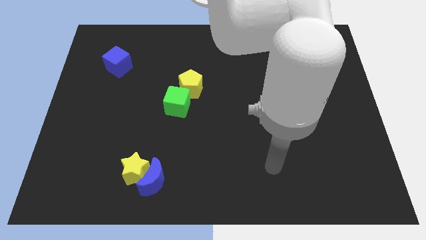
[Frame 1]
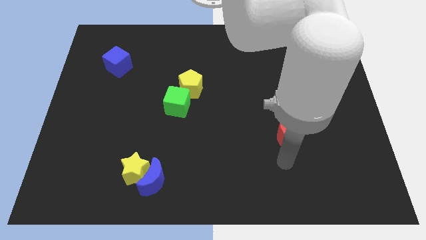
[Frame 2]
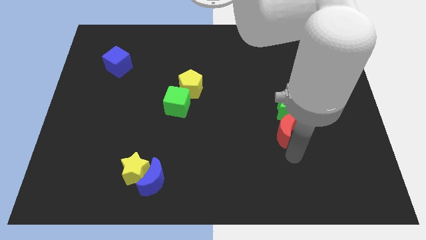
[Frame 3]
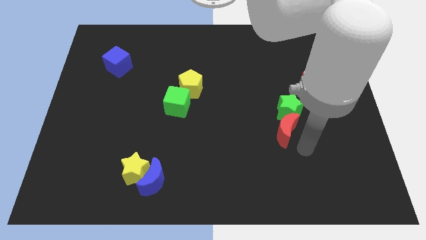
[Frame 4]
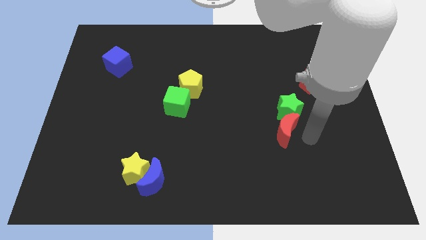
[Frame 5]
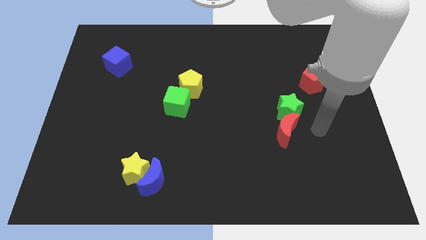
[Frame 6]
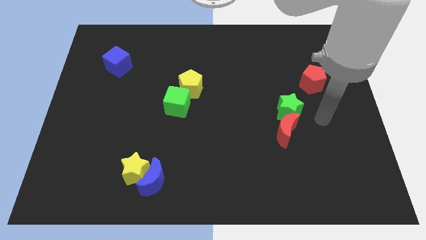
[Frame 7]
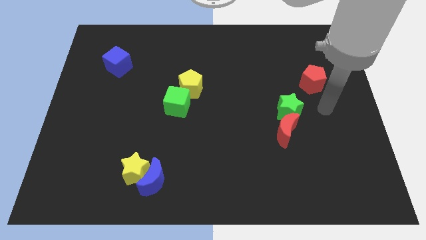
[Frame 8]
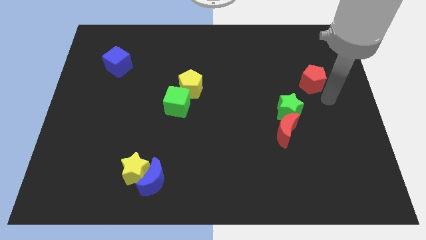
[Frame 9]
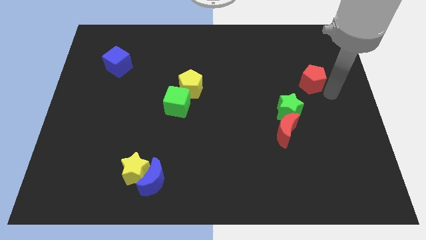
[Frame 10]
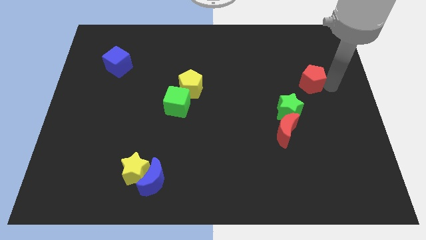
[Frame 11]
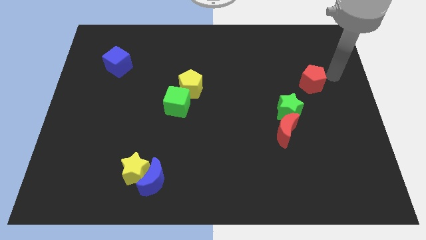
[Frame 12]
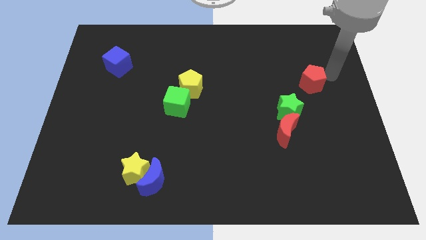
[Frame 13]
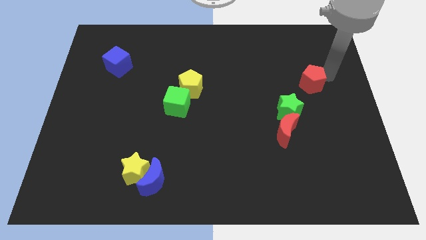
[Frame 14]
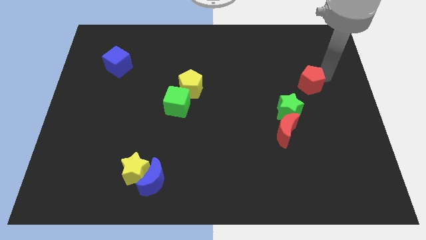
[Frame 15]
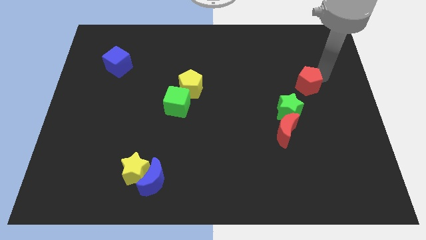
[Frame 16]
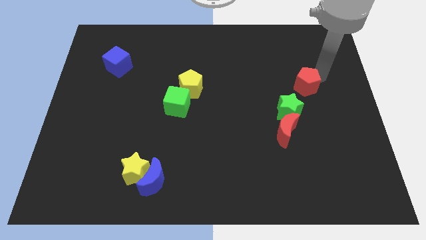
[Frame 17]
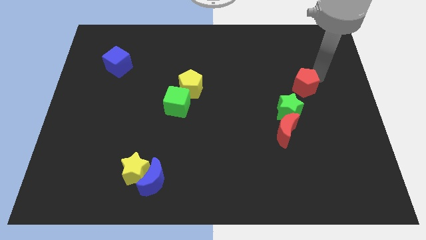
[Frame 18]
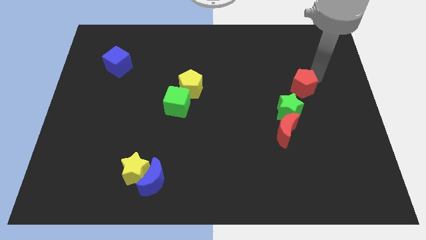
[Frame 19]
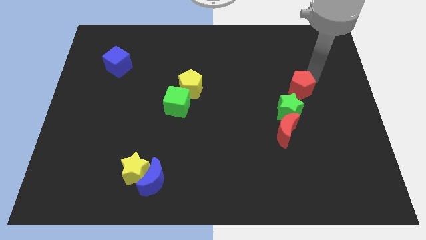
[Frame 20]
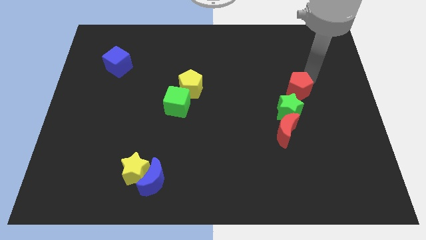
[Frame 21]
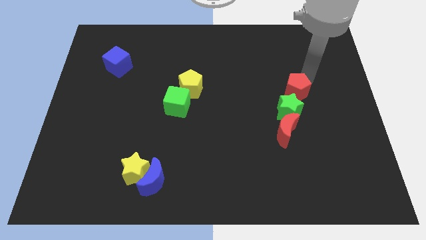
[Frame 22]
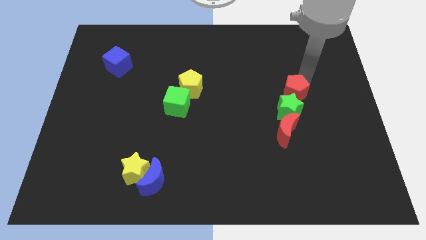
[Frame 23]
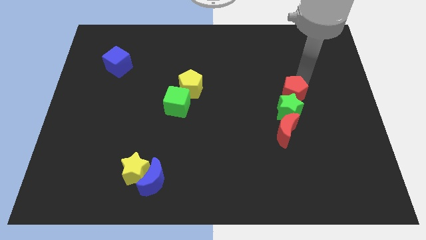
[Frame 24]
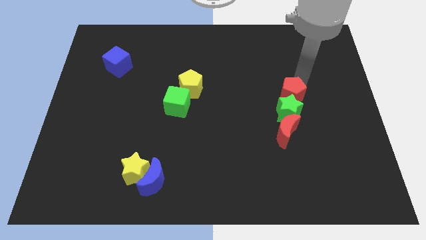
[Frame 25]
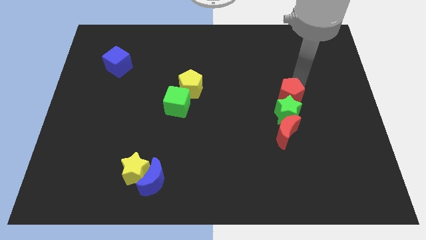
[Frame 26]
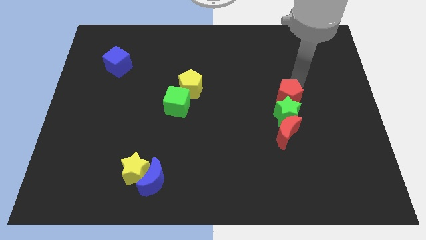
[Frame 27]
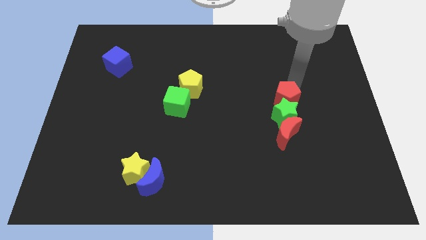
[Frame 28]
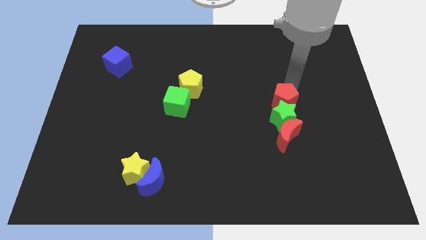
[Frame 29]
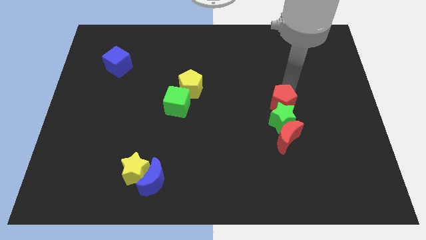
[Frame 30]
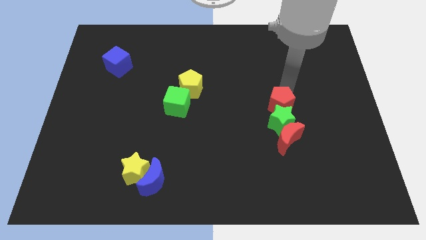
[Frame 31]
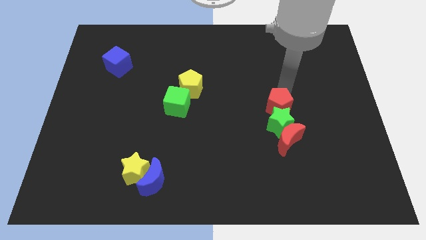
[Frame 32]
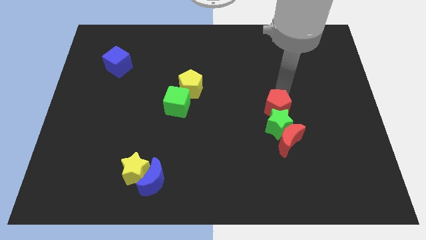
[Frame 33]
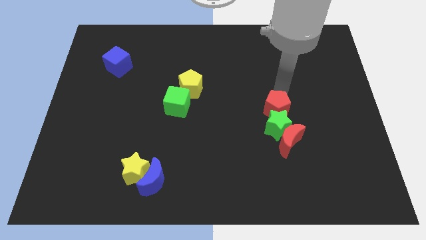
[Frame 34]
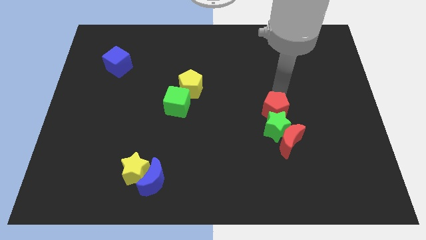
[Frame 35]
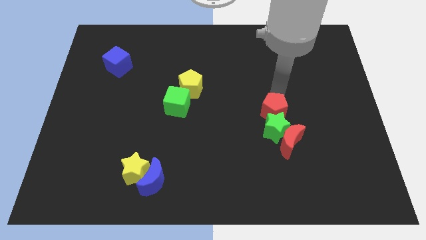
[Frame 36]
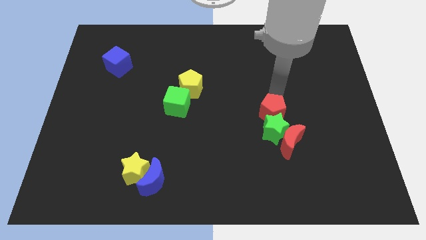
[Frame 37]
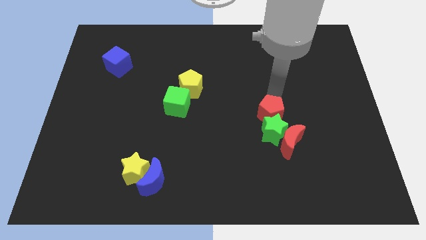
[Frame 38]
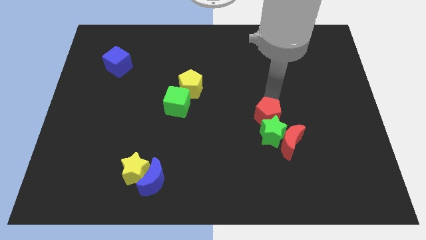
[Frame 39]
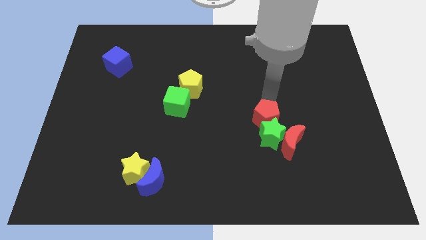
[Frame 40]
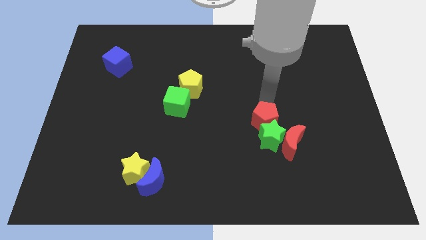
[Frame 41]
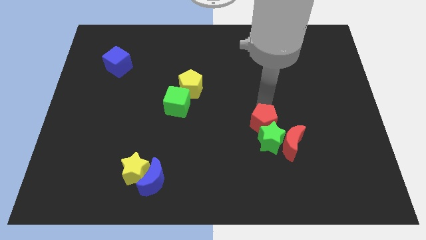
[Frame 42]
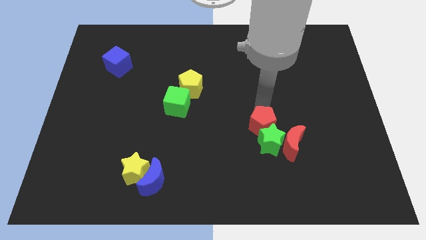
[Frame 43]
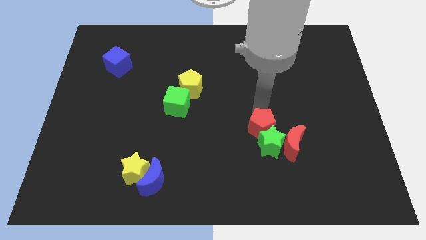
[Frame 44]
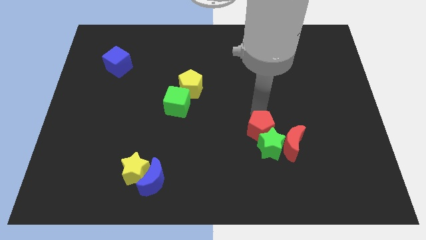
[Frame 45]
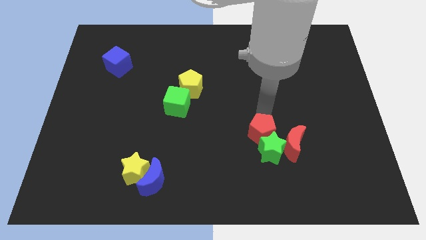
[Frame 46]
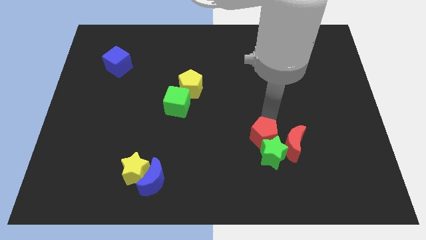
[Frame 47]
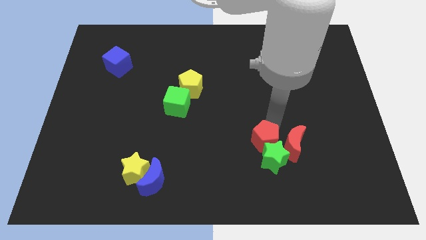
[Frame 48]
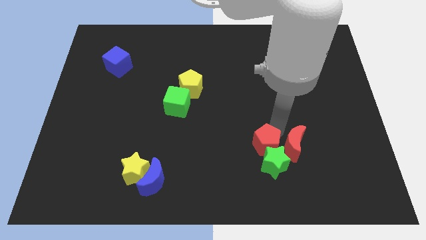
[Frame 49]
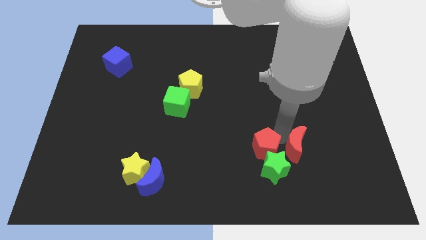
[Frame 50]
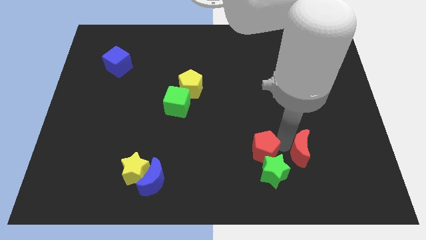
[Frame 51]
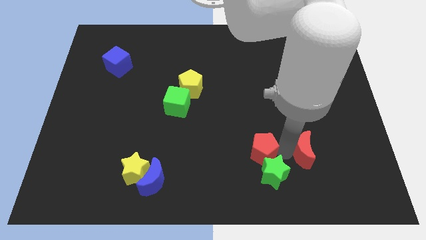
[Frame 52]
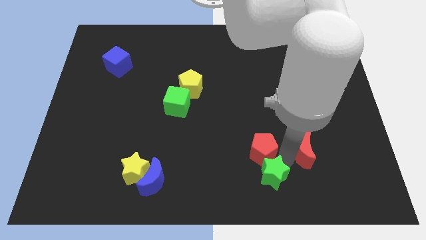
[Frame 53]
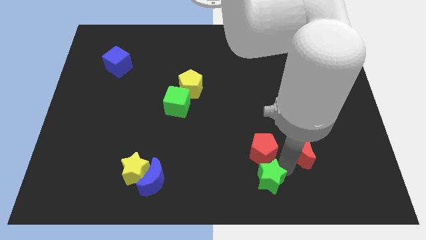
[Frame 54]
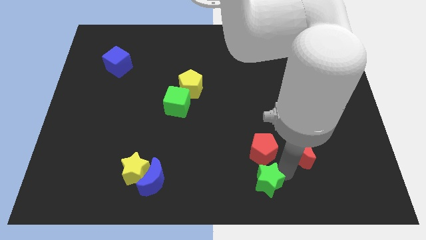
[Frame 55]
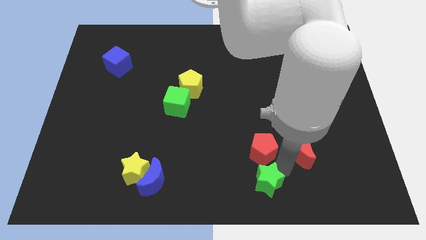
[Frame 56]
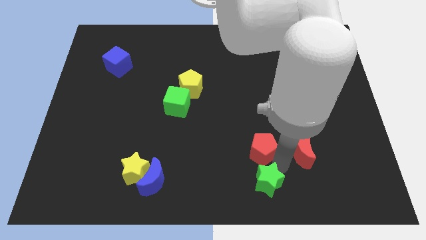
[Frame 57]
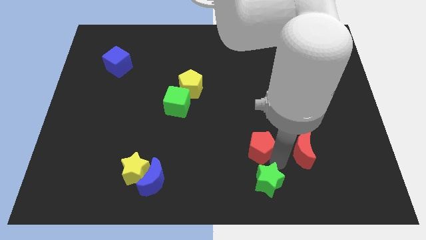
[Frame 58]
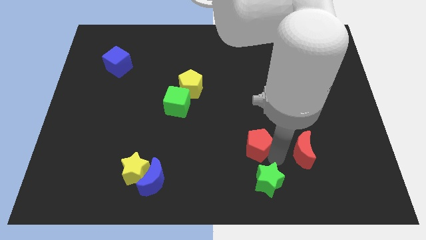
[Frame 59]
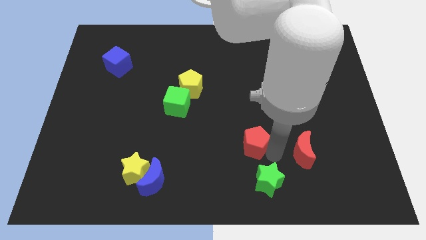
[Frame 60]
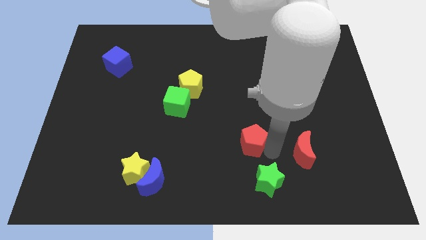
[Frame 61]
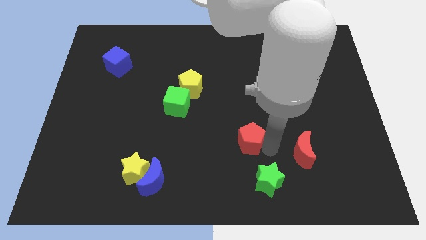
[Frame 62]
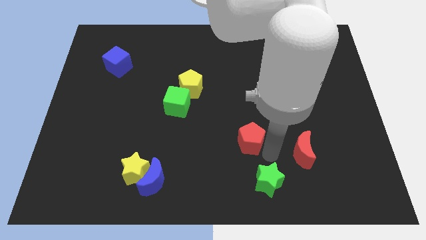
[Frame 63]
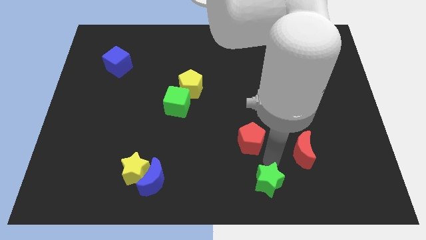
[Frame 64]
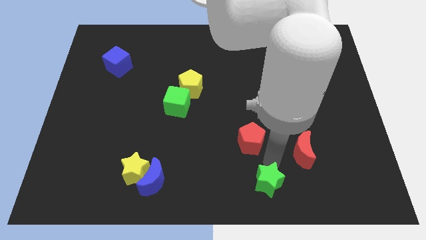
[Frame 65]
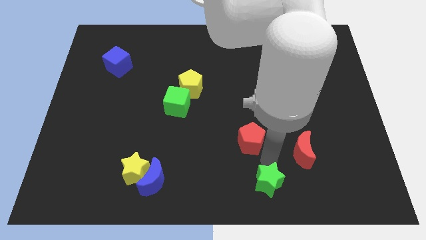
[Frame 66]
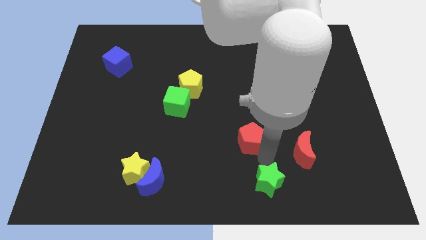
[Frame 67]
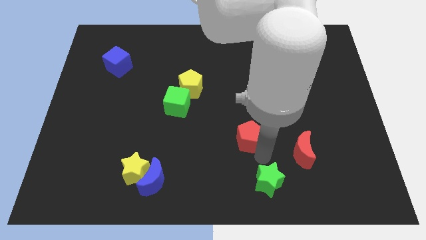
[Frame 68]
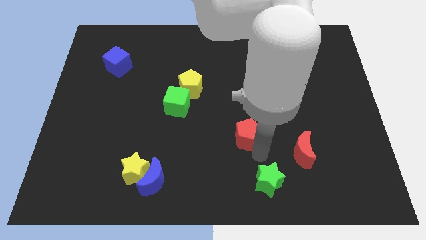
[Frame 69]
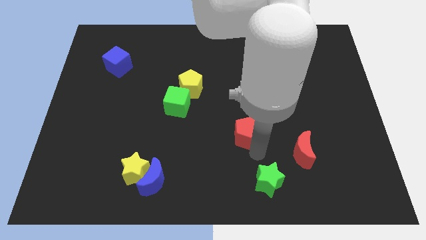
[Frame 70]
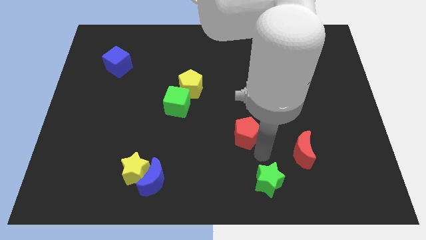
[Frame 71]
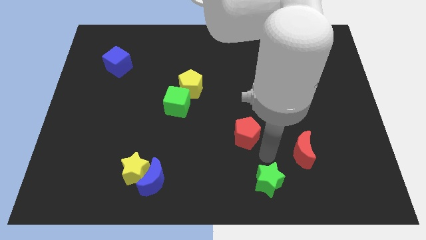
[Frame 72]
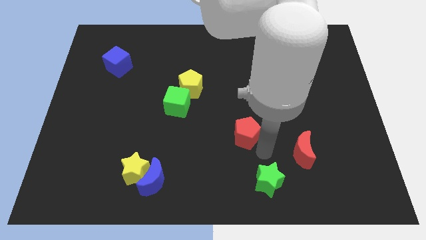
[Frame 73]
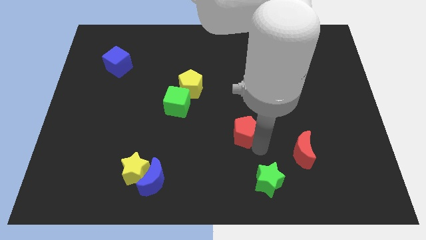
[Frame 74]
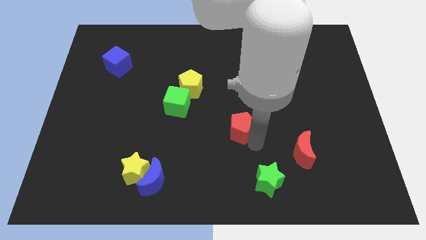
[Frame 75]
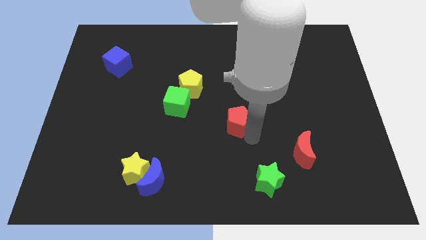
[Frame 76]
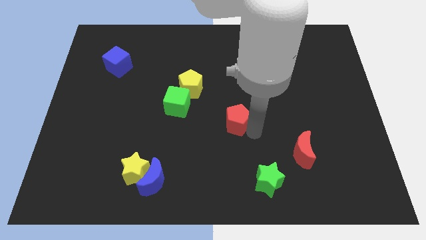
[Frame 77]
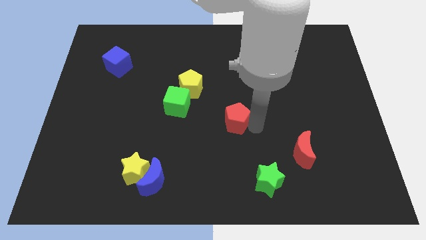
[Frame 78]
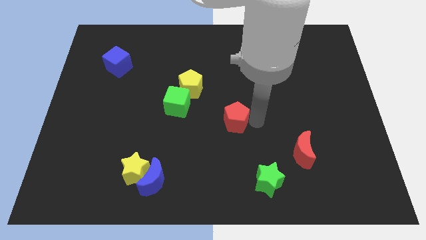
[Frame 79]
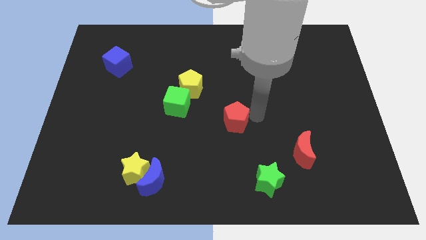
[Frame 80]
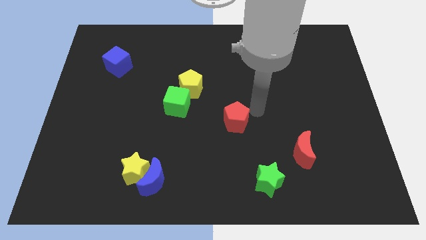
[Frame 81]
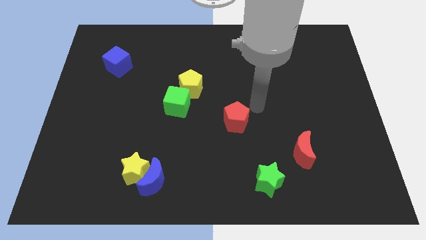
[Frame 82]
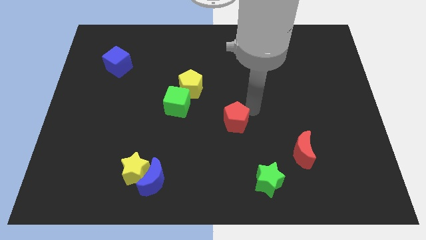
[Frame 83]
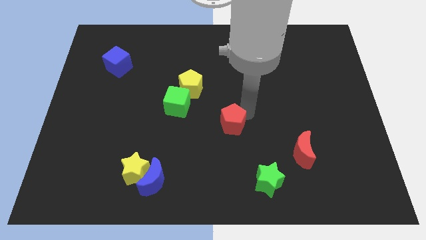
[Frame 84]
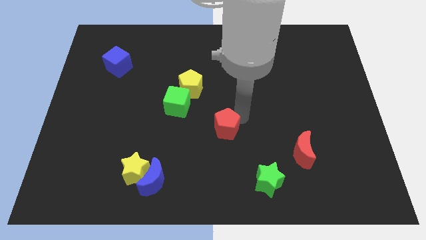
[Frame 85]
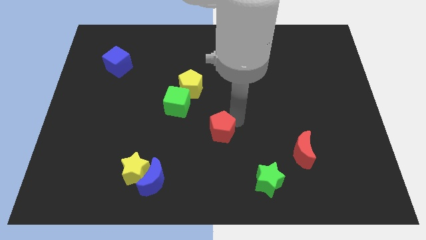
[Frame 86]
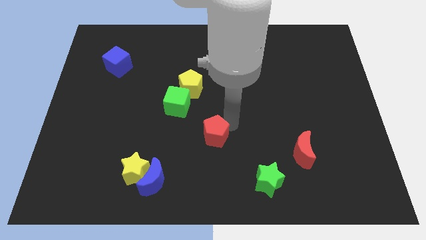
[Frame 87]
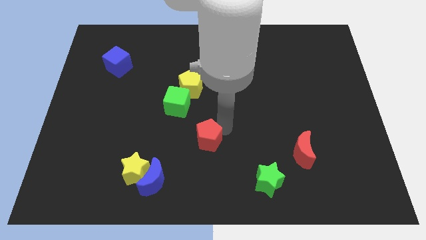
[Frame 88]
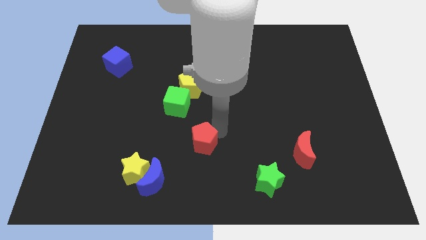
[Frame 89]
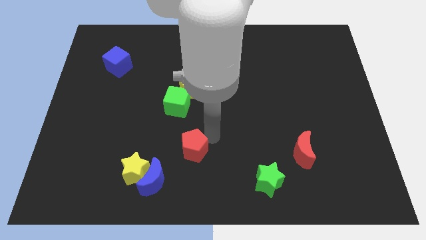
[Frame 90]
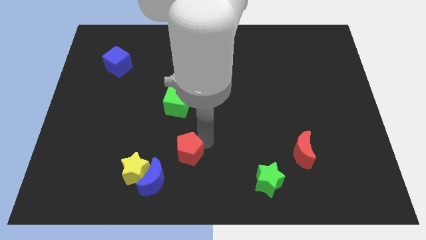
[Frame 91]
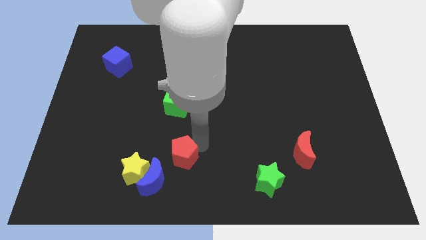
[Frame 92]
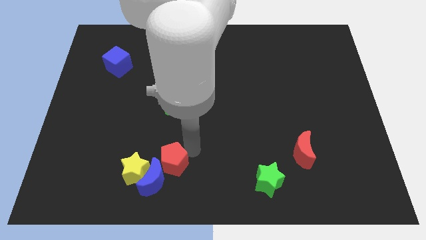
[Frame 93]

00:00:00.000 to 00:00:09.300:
move the red pentagon next to the blue moon
